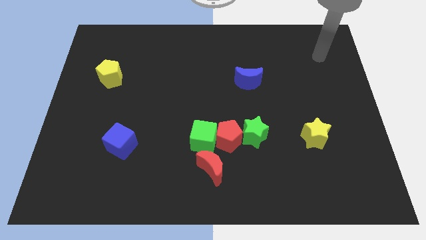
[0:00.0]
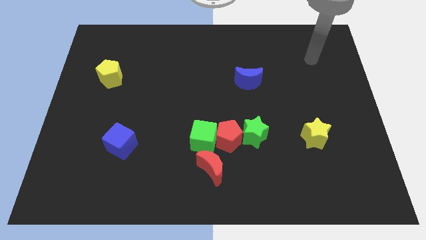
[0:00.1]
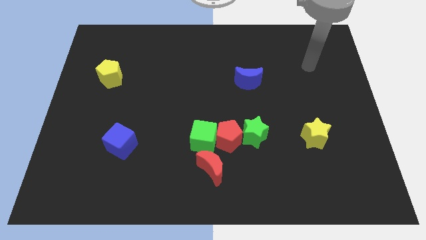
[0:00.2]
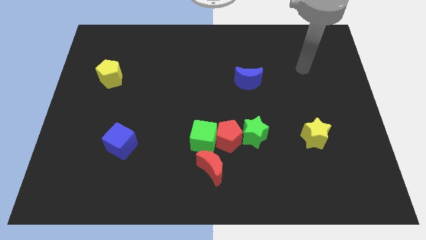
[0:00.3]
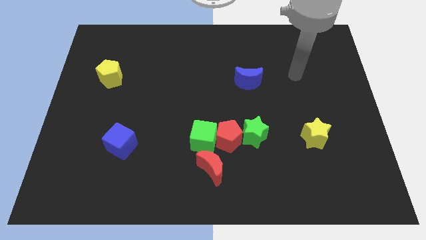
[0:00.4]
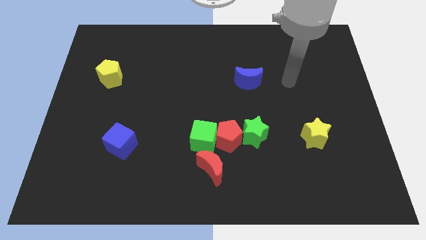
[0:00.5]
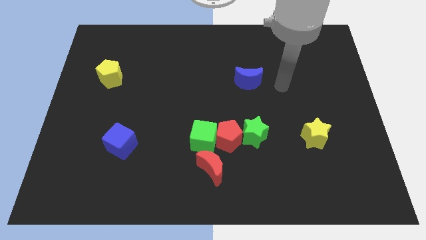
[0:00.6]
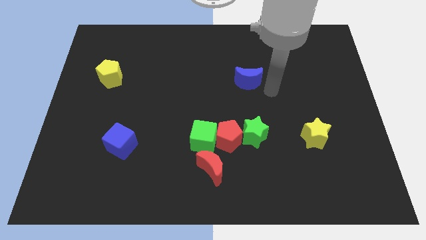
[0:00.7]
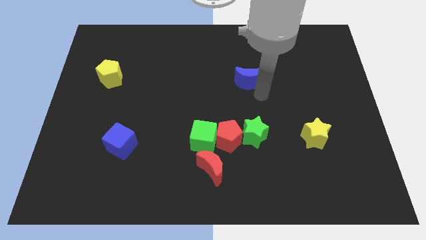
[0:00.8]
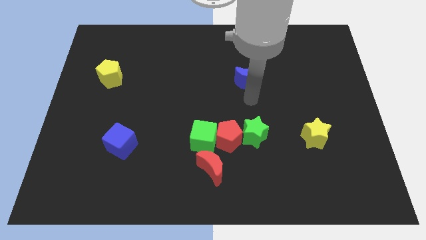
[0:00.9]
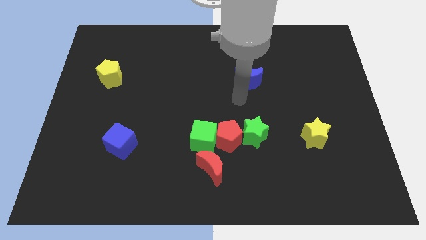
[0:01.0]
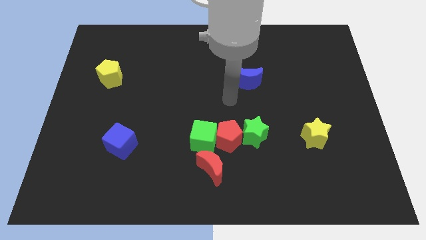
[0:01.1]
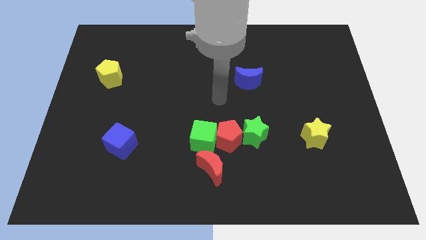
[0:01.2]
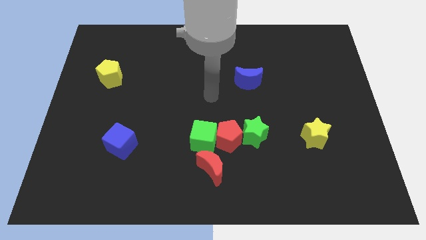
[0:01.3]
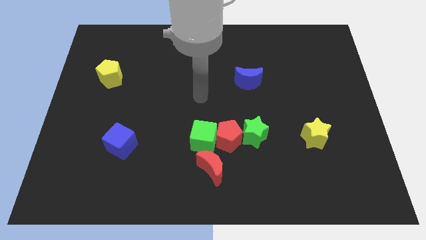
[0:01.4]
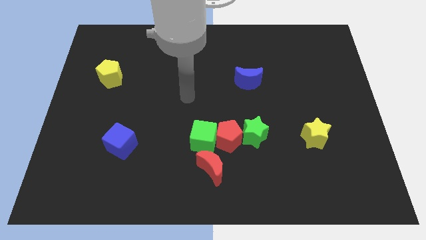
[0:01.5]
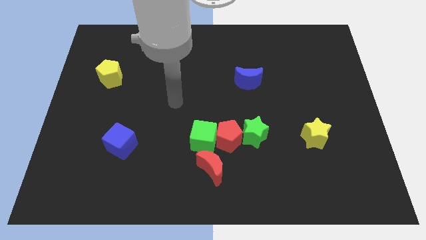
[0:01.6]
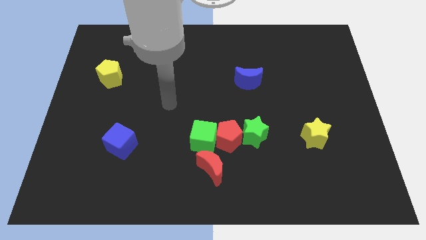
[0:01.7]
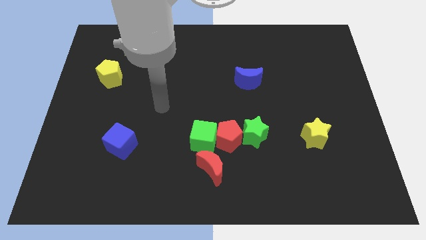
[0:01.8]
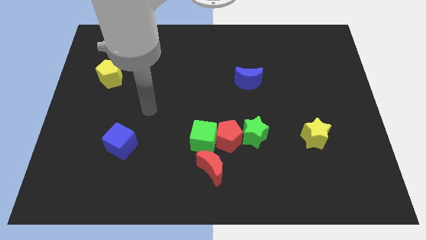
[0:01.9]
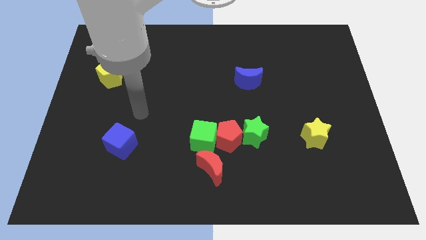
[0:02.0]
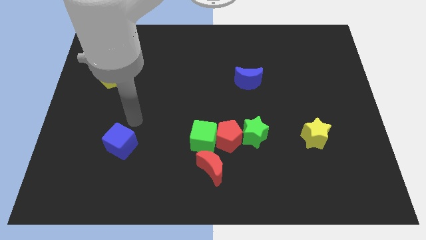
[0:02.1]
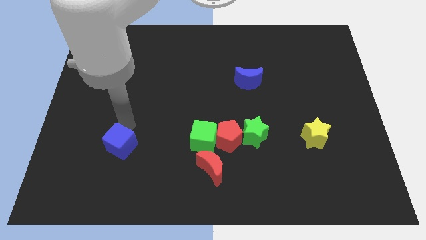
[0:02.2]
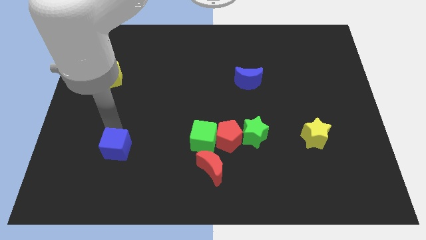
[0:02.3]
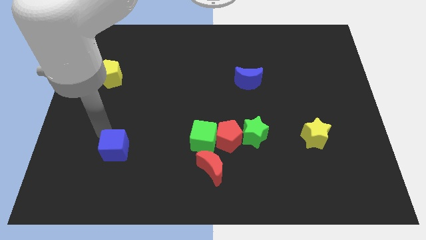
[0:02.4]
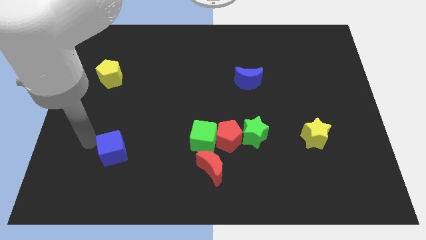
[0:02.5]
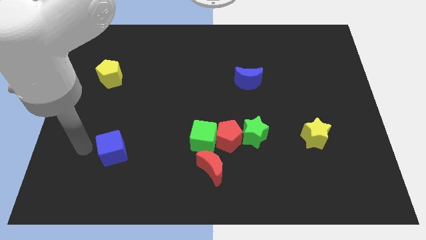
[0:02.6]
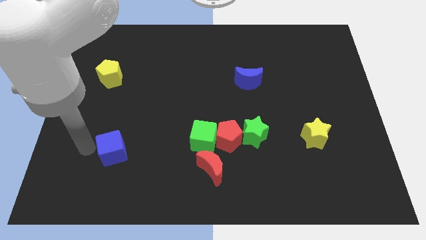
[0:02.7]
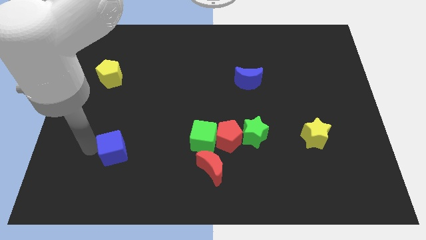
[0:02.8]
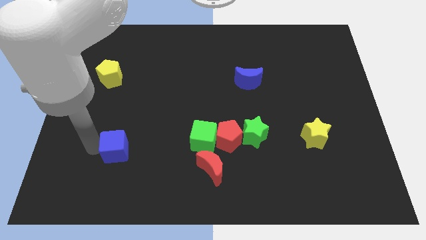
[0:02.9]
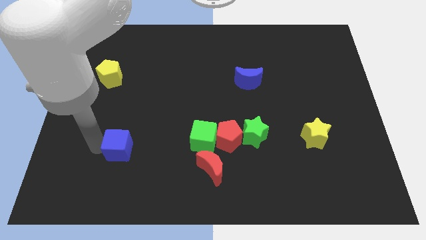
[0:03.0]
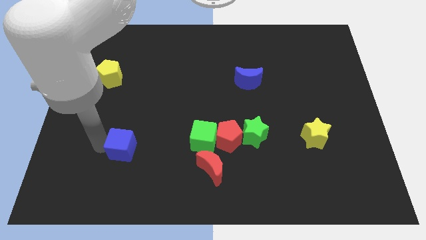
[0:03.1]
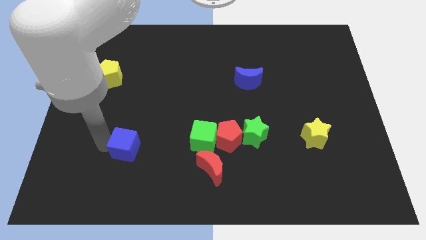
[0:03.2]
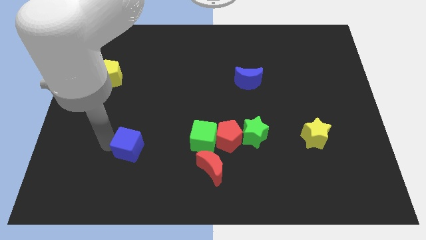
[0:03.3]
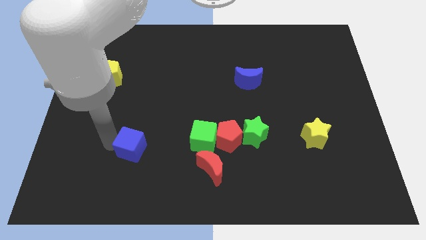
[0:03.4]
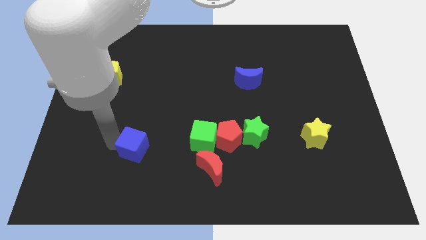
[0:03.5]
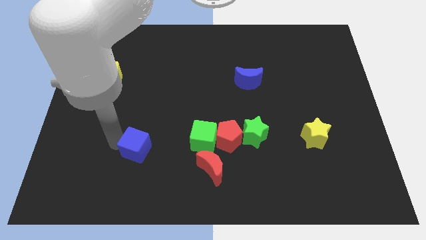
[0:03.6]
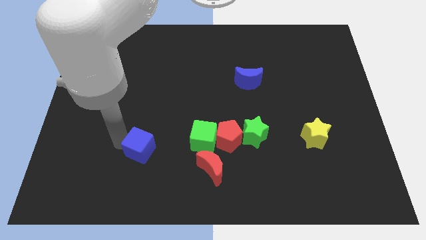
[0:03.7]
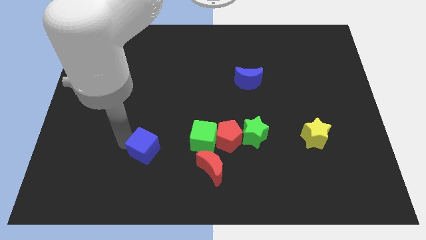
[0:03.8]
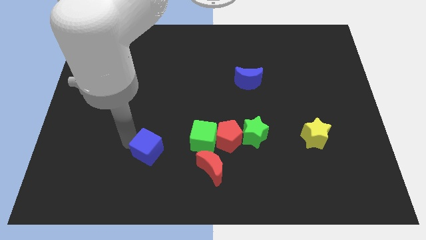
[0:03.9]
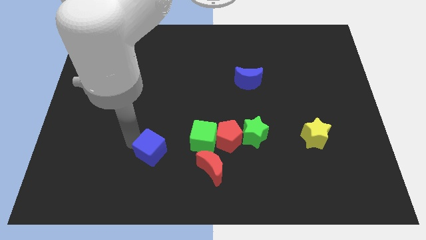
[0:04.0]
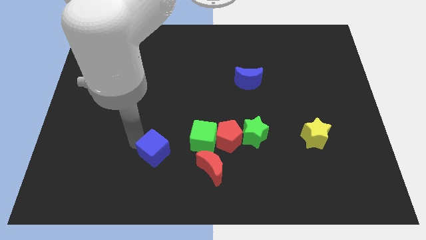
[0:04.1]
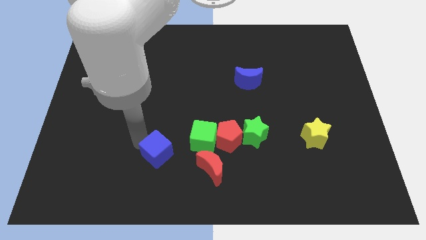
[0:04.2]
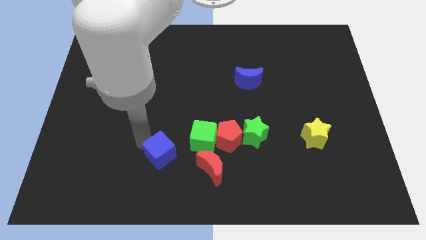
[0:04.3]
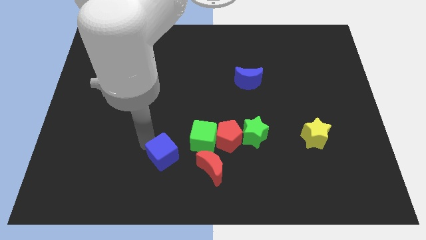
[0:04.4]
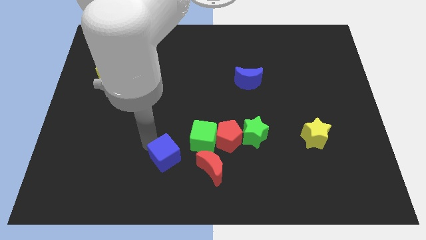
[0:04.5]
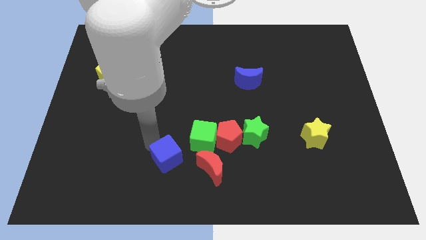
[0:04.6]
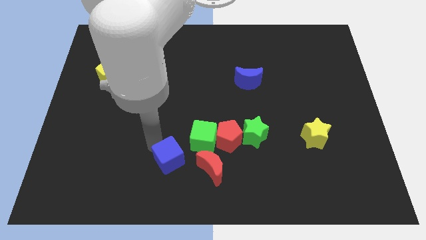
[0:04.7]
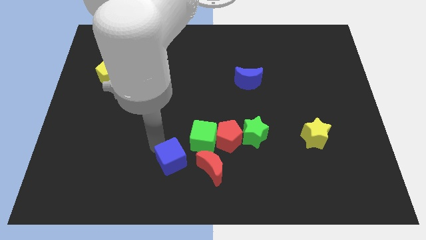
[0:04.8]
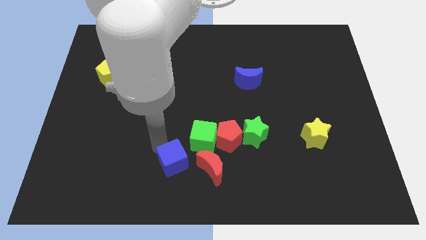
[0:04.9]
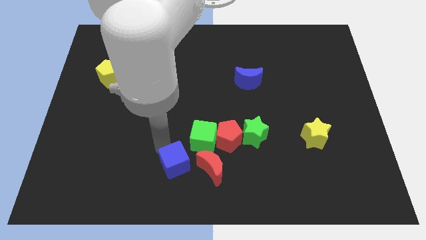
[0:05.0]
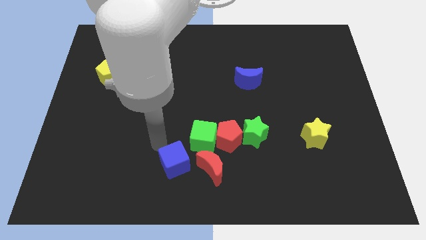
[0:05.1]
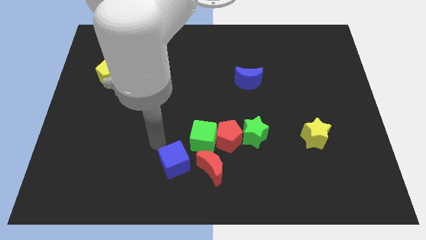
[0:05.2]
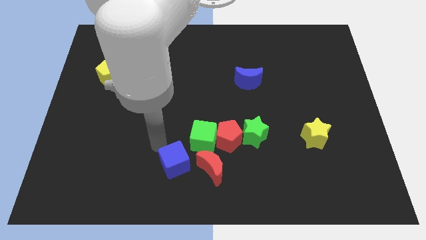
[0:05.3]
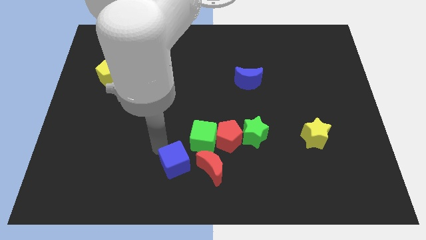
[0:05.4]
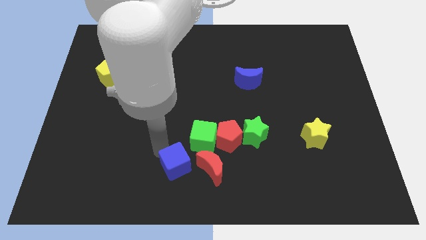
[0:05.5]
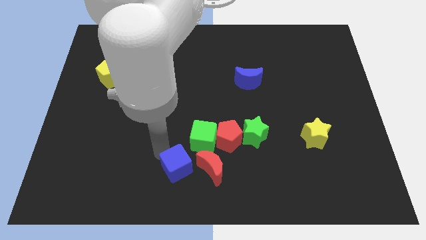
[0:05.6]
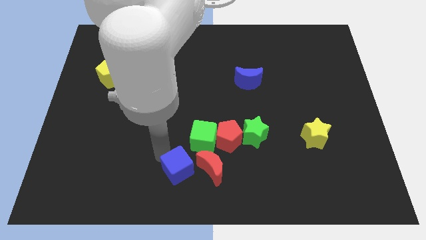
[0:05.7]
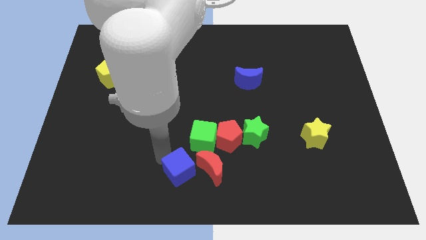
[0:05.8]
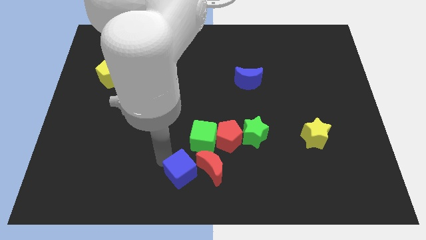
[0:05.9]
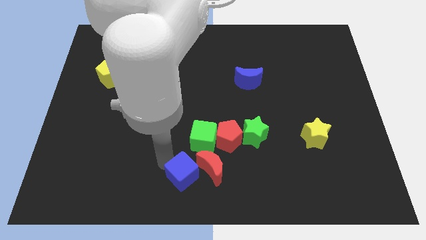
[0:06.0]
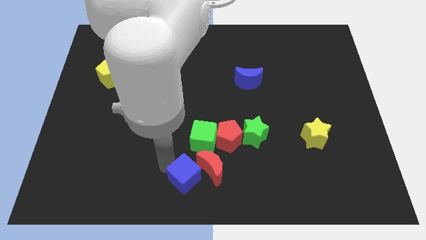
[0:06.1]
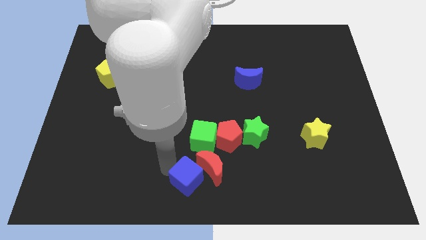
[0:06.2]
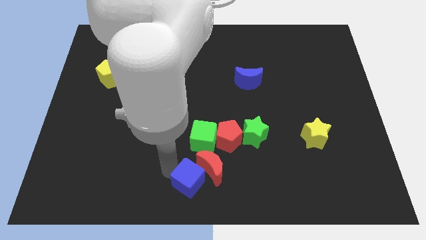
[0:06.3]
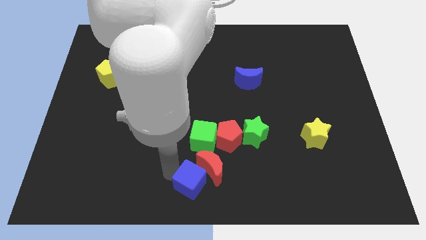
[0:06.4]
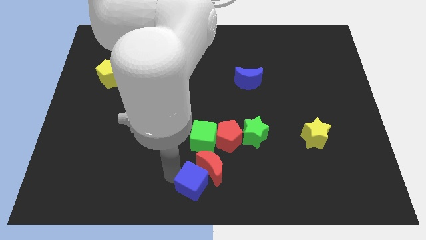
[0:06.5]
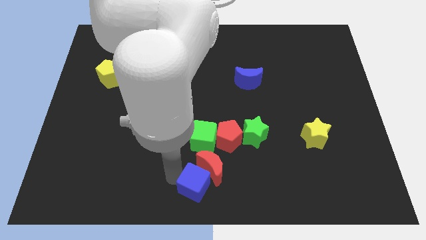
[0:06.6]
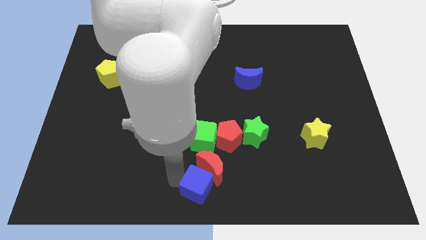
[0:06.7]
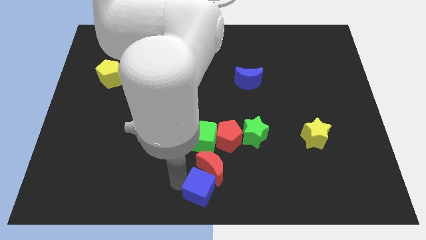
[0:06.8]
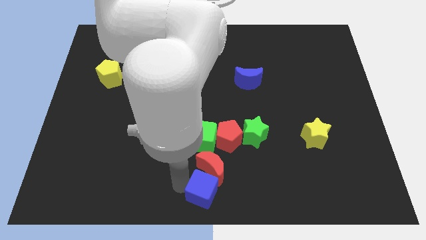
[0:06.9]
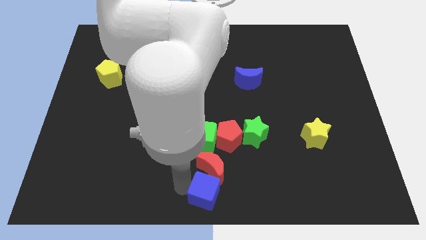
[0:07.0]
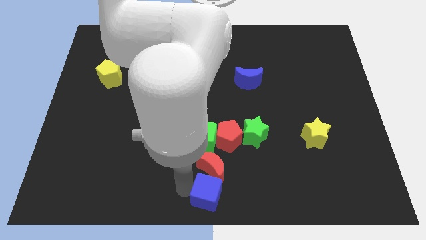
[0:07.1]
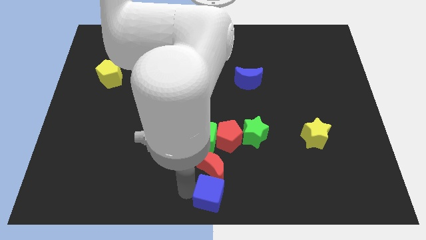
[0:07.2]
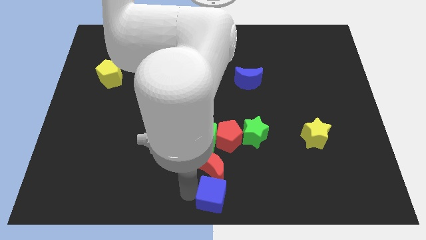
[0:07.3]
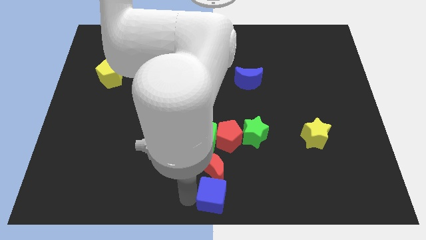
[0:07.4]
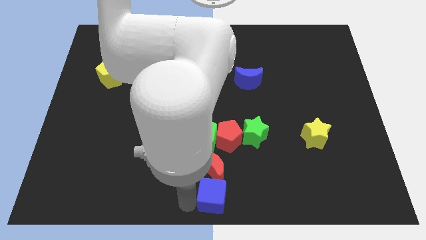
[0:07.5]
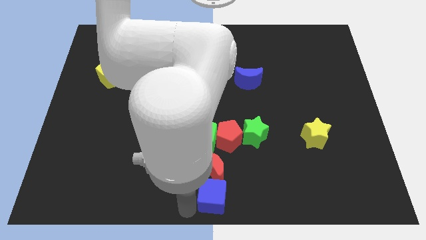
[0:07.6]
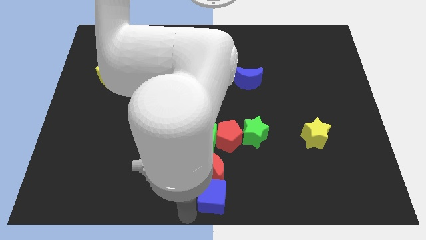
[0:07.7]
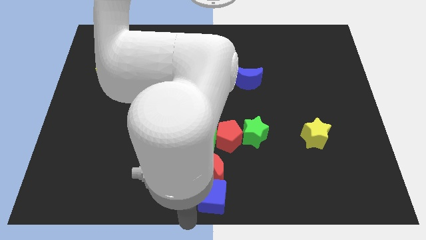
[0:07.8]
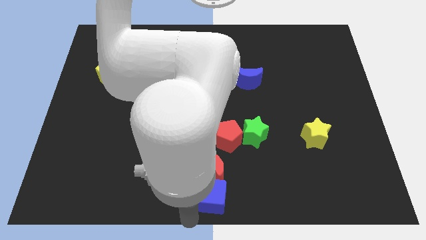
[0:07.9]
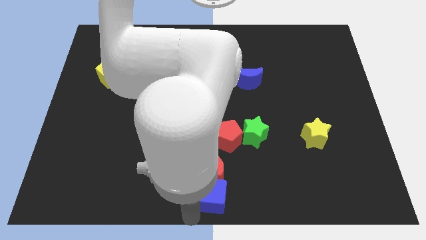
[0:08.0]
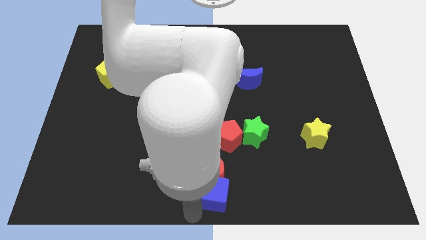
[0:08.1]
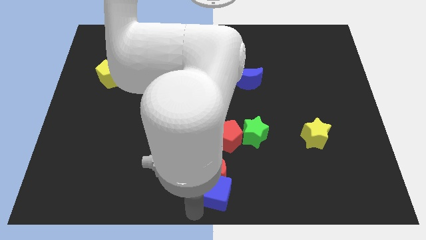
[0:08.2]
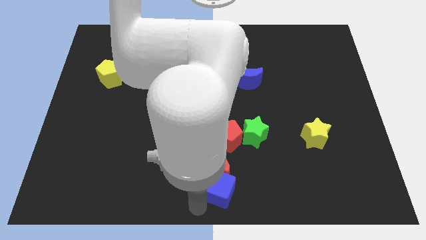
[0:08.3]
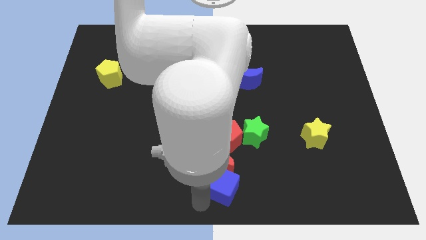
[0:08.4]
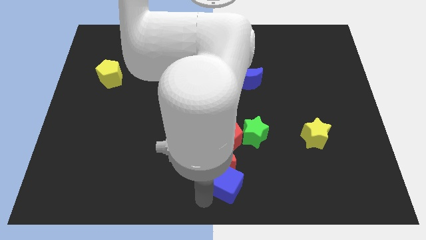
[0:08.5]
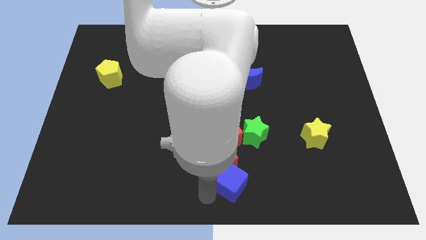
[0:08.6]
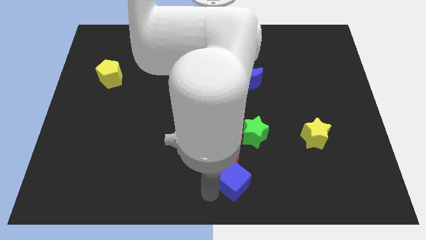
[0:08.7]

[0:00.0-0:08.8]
move the blue cube to the right
